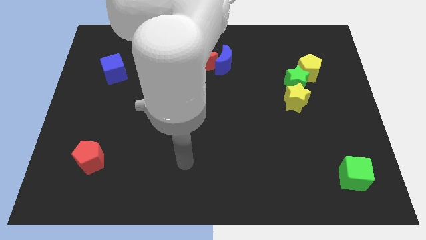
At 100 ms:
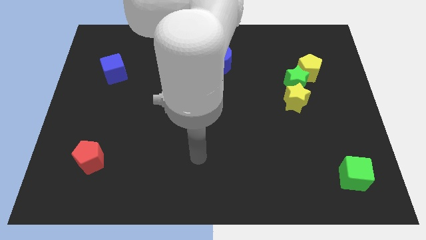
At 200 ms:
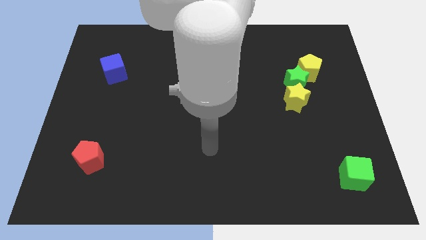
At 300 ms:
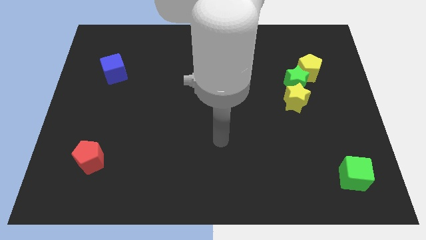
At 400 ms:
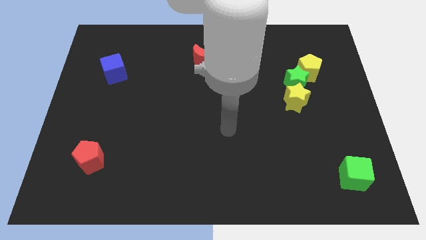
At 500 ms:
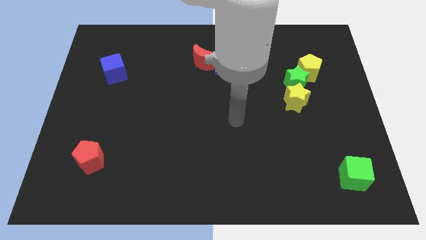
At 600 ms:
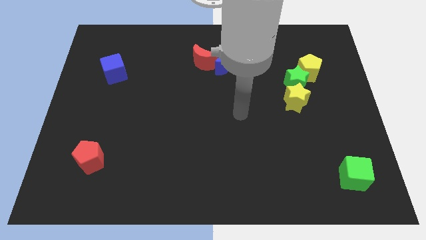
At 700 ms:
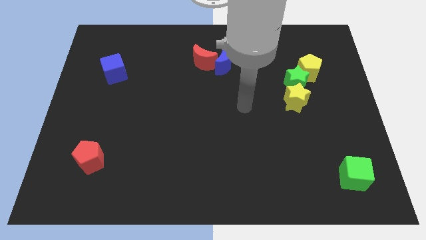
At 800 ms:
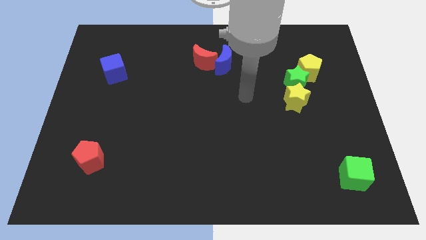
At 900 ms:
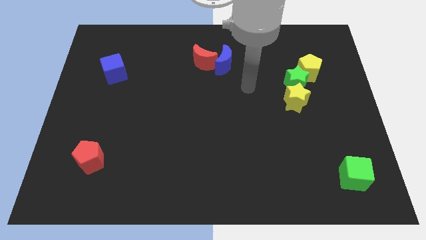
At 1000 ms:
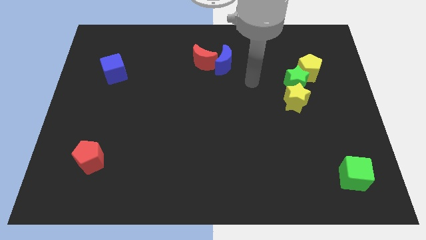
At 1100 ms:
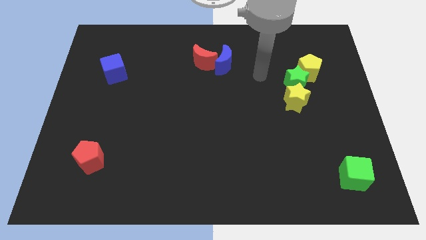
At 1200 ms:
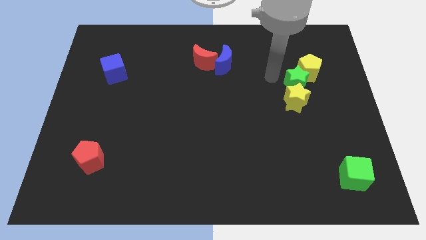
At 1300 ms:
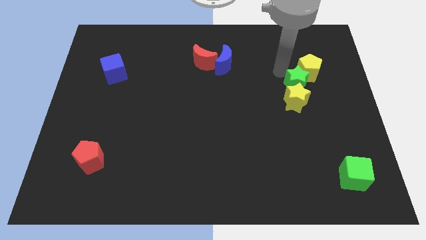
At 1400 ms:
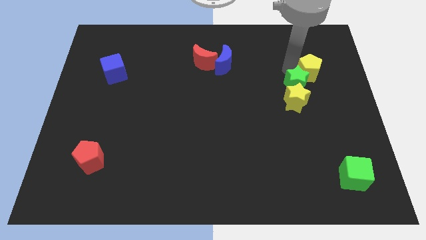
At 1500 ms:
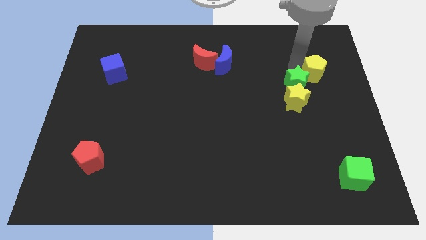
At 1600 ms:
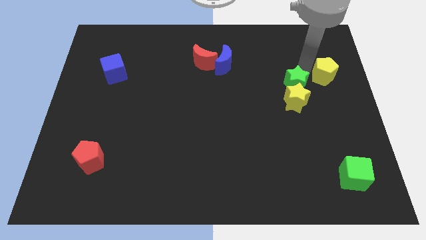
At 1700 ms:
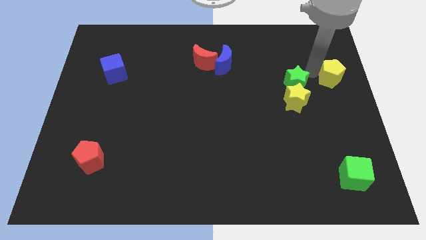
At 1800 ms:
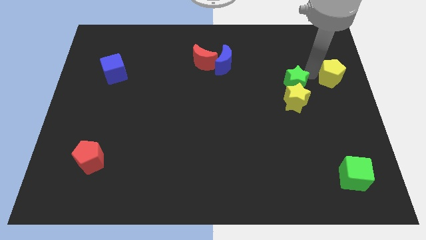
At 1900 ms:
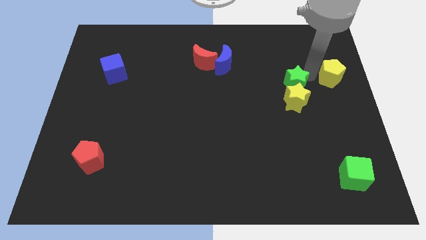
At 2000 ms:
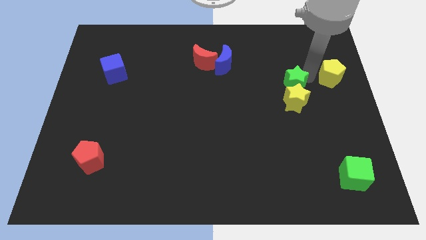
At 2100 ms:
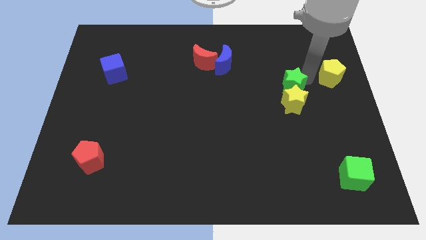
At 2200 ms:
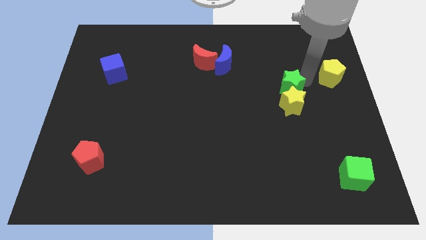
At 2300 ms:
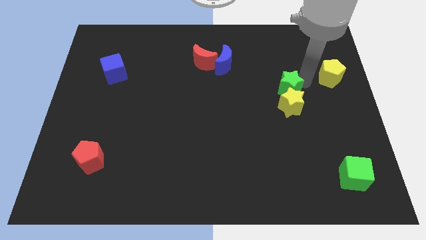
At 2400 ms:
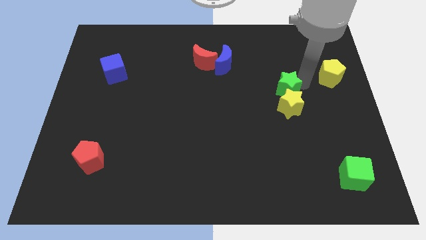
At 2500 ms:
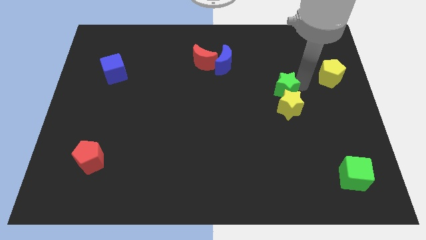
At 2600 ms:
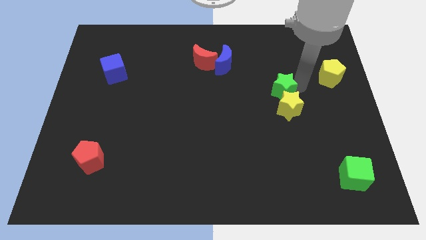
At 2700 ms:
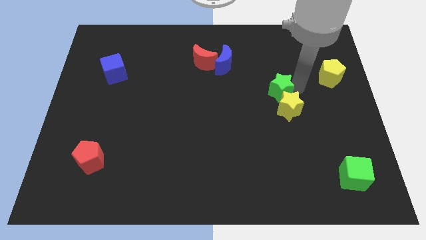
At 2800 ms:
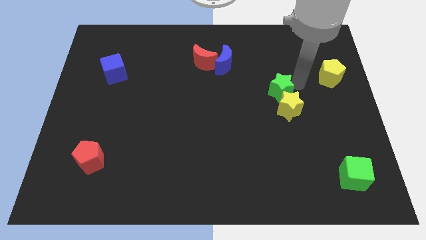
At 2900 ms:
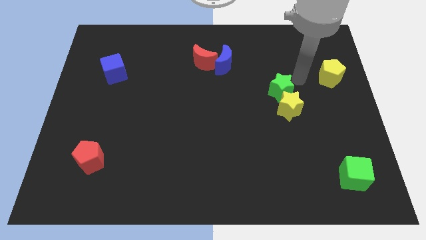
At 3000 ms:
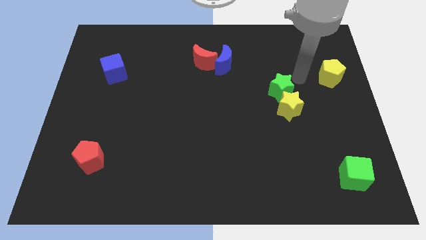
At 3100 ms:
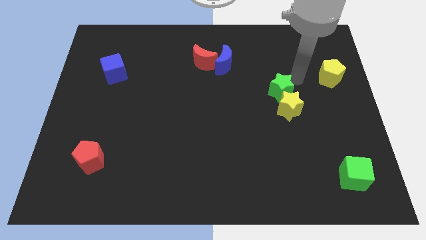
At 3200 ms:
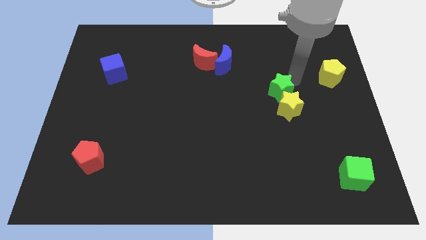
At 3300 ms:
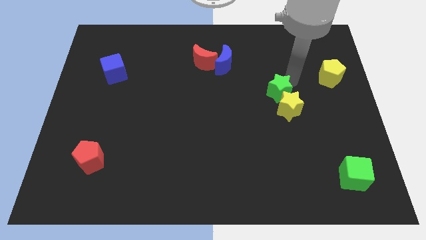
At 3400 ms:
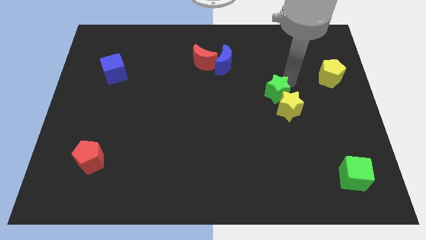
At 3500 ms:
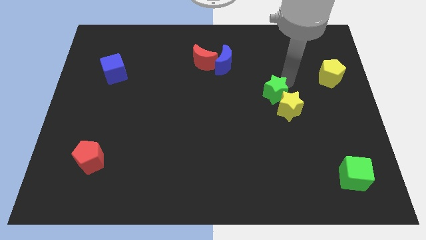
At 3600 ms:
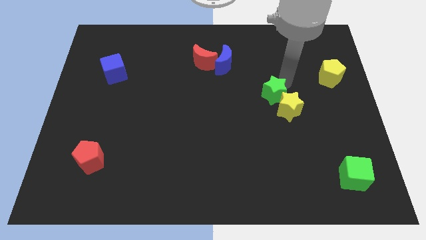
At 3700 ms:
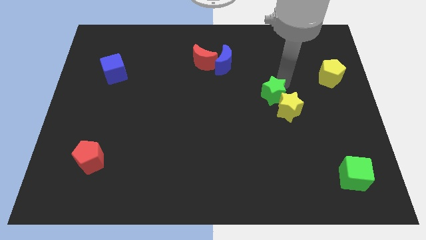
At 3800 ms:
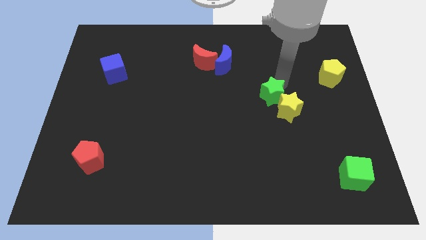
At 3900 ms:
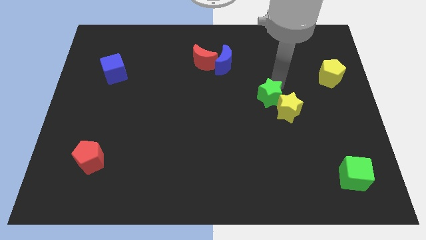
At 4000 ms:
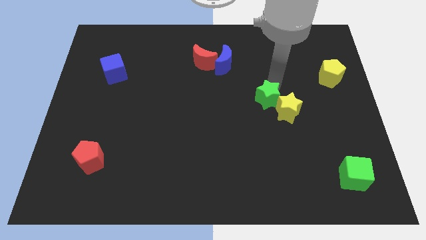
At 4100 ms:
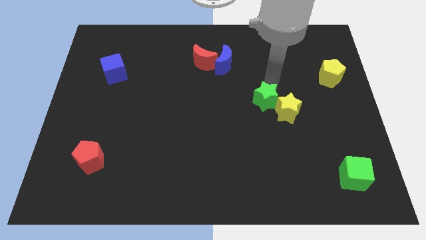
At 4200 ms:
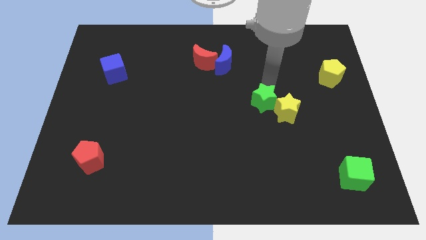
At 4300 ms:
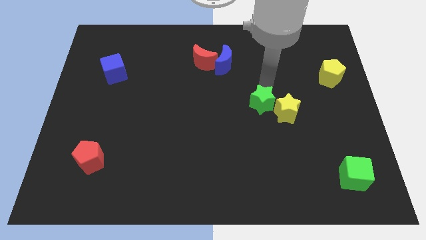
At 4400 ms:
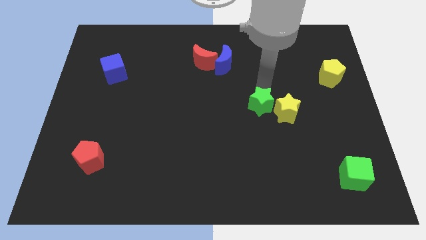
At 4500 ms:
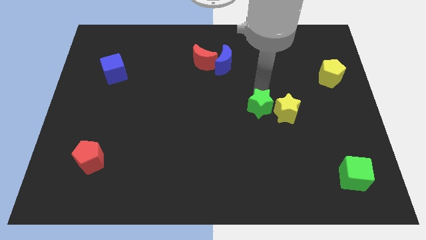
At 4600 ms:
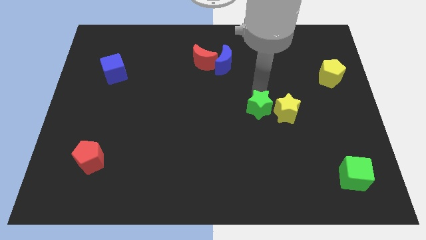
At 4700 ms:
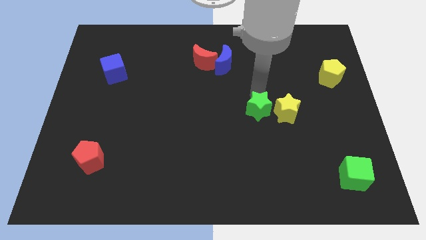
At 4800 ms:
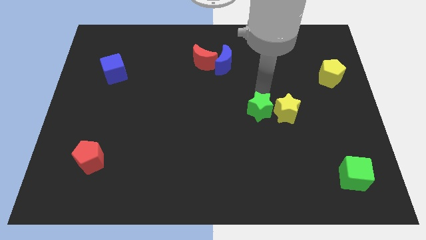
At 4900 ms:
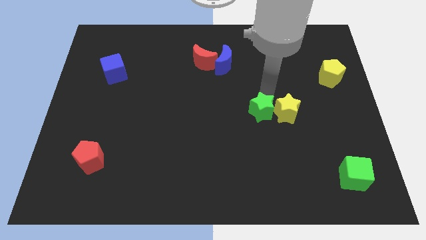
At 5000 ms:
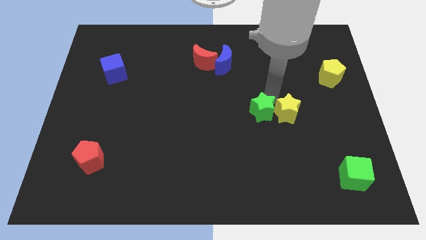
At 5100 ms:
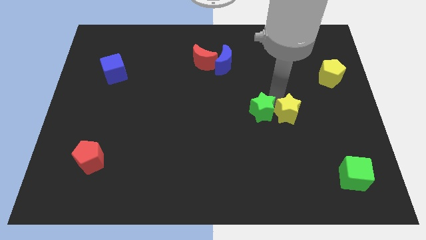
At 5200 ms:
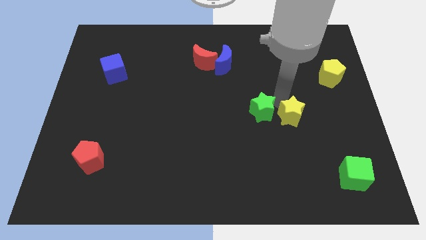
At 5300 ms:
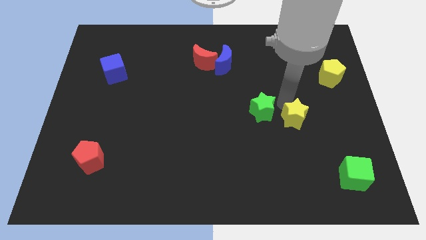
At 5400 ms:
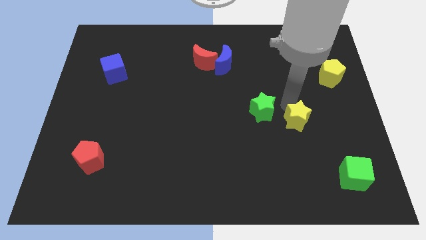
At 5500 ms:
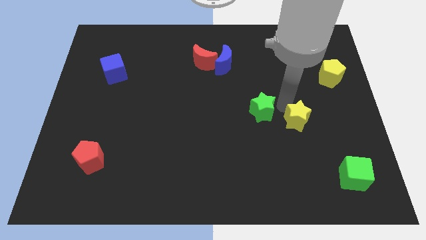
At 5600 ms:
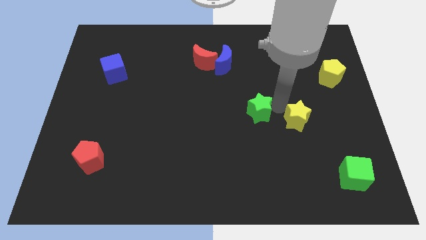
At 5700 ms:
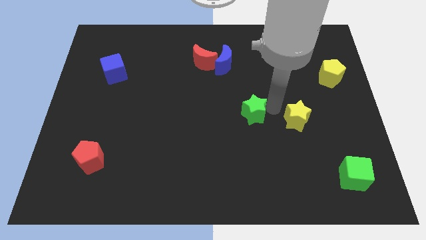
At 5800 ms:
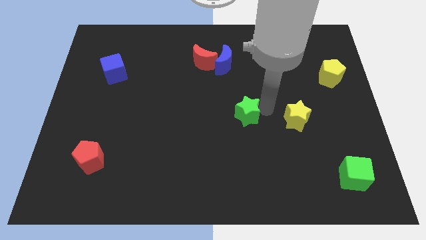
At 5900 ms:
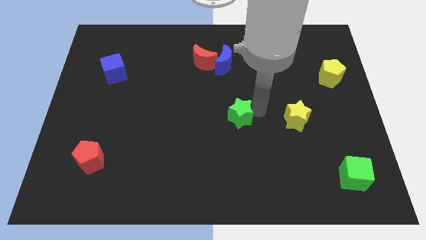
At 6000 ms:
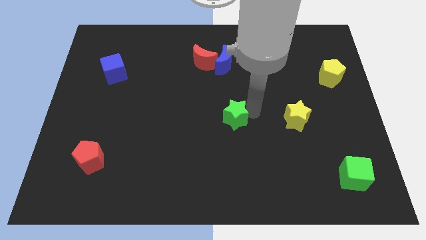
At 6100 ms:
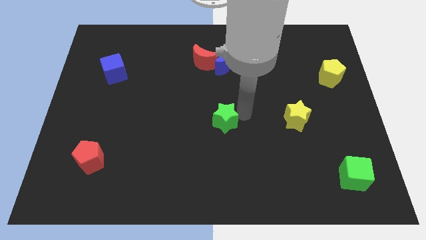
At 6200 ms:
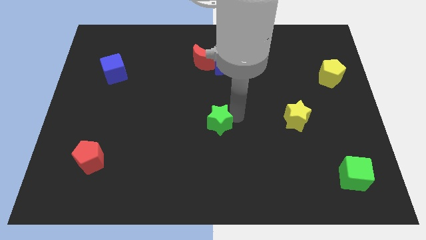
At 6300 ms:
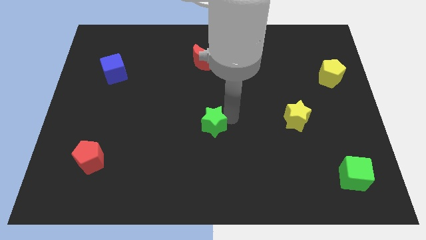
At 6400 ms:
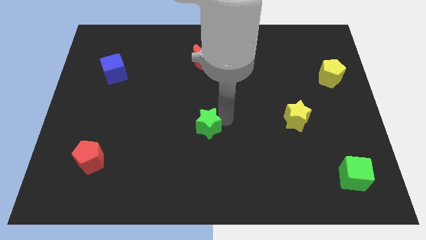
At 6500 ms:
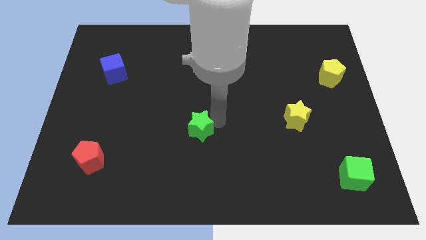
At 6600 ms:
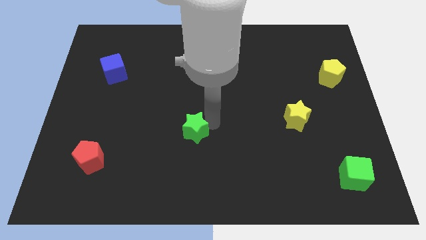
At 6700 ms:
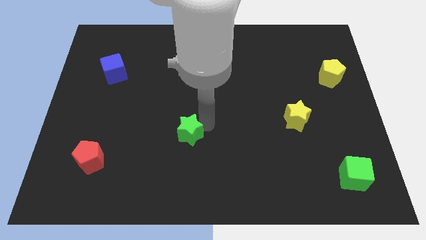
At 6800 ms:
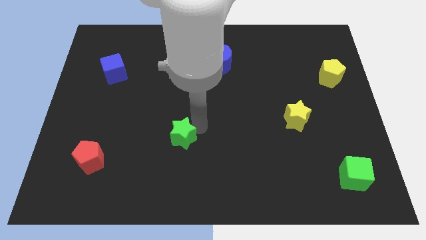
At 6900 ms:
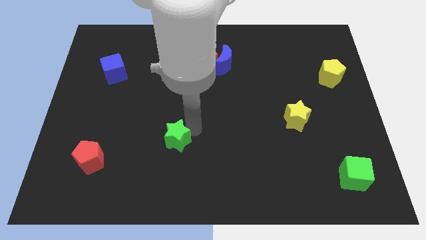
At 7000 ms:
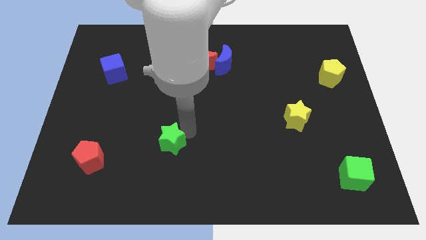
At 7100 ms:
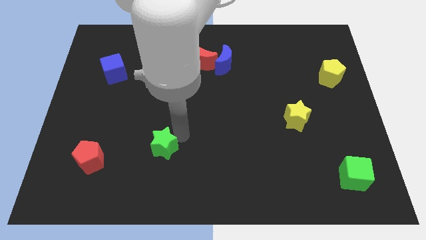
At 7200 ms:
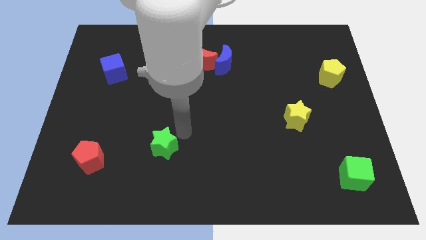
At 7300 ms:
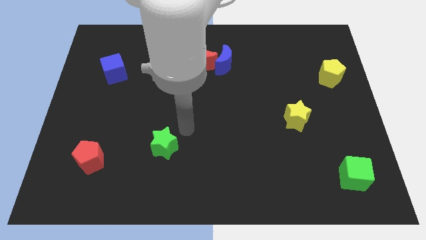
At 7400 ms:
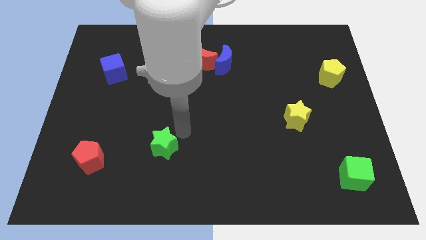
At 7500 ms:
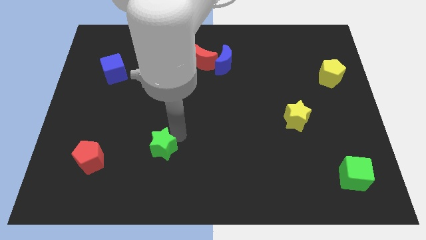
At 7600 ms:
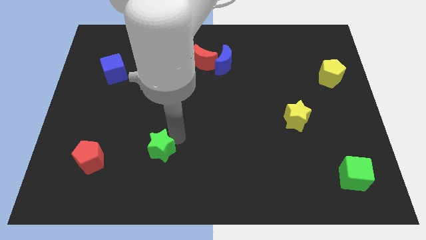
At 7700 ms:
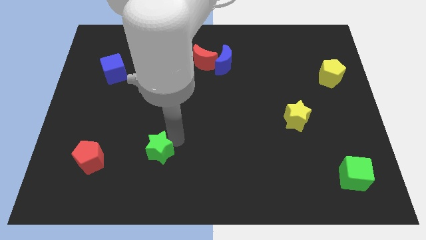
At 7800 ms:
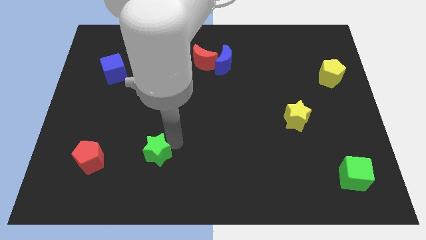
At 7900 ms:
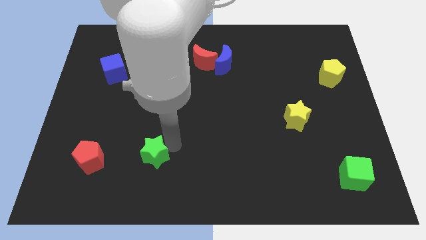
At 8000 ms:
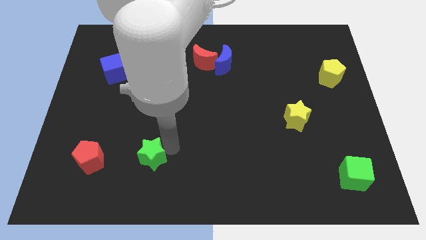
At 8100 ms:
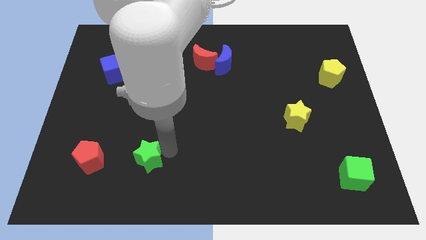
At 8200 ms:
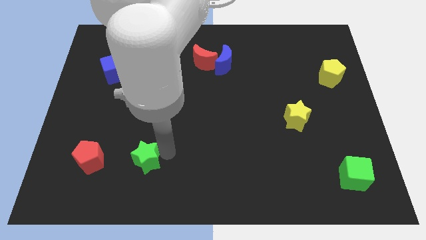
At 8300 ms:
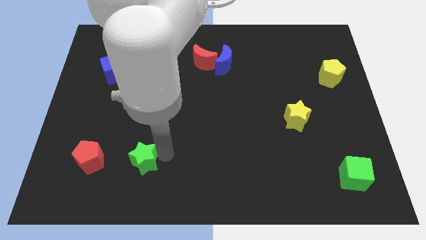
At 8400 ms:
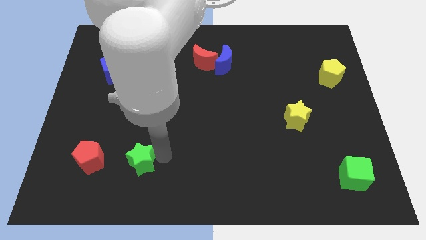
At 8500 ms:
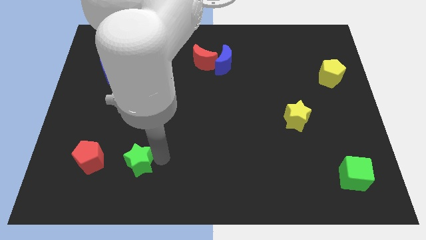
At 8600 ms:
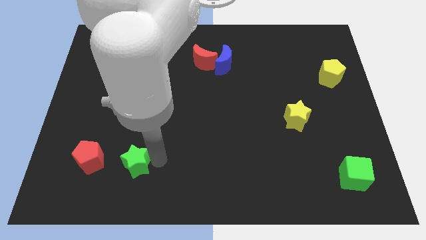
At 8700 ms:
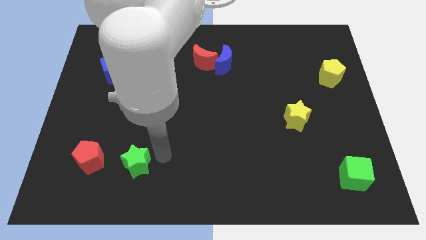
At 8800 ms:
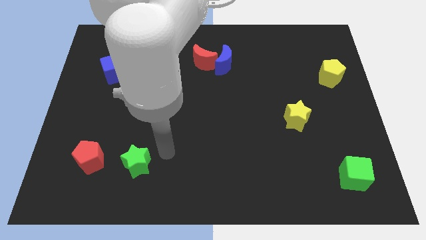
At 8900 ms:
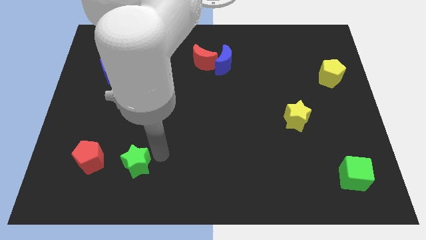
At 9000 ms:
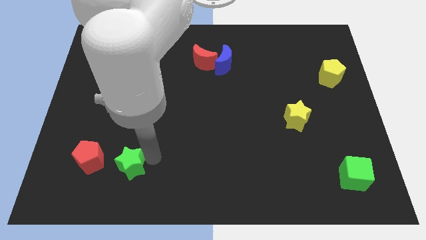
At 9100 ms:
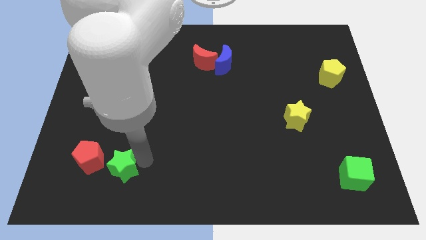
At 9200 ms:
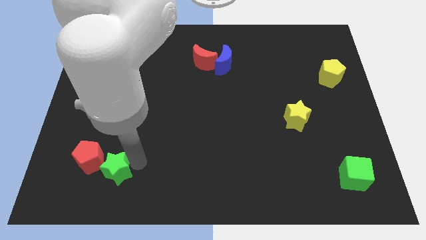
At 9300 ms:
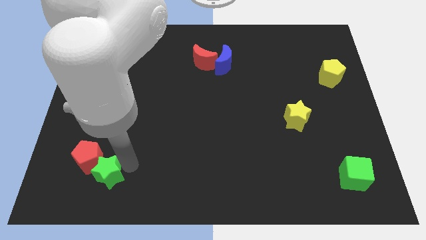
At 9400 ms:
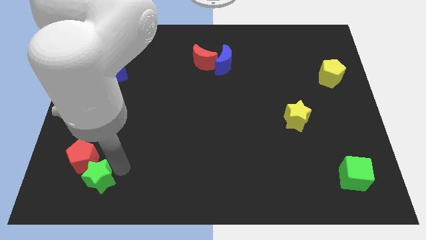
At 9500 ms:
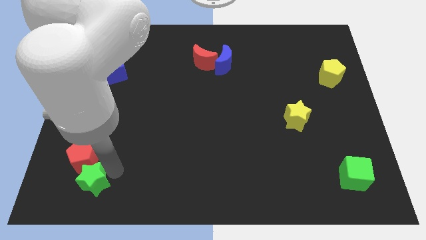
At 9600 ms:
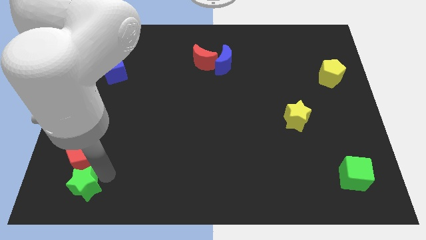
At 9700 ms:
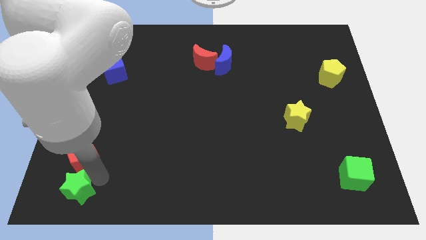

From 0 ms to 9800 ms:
put the green star to the bottom left corner
